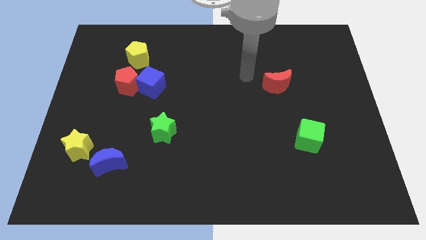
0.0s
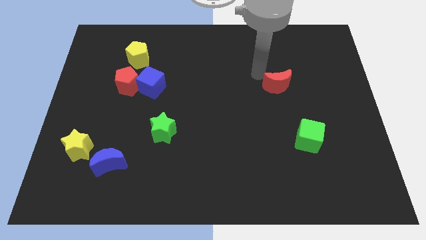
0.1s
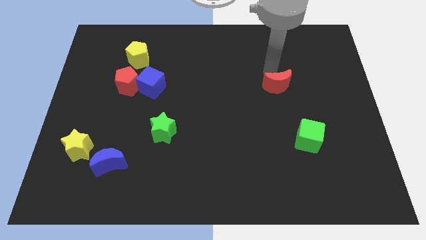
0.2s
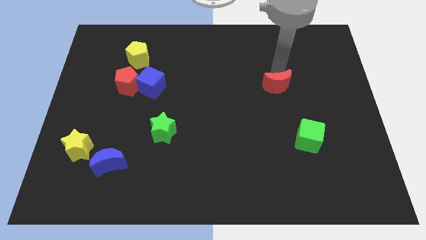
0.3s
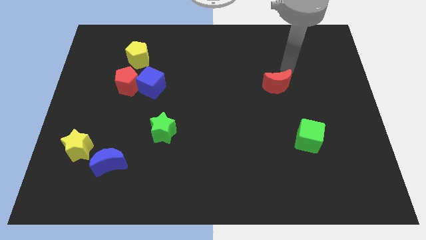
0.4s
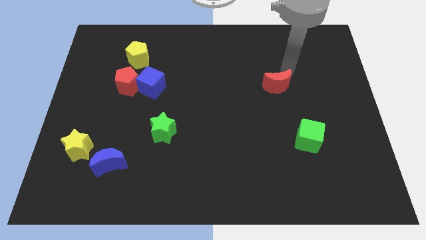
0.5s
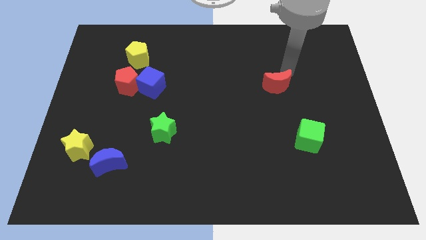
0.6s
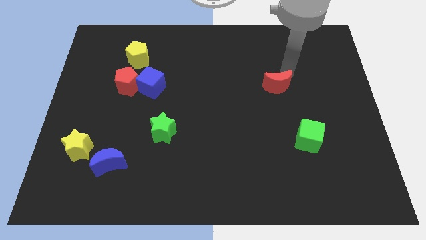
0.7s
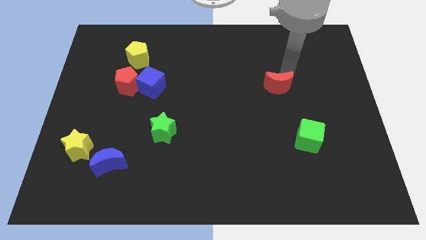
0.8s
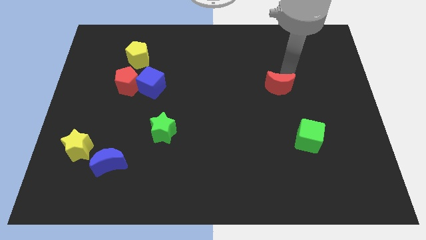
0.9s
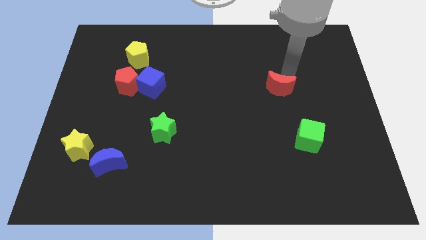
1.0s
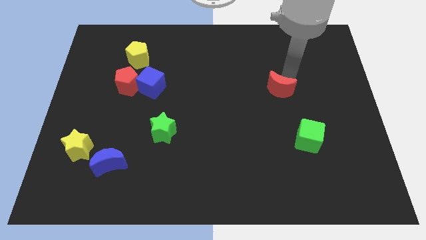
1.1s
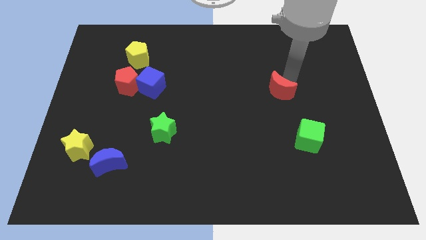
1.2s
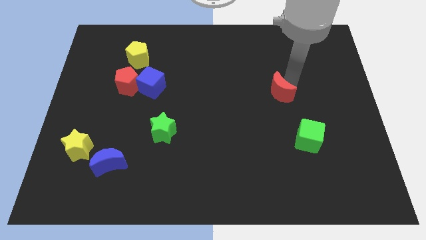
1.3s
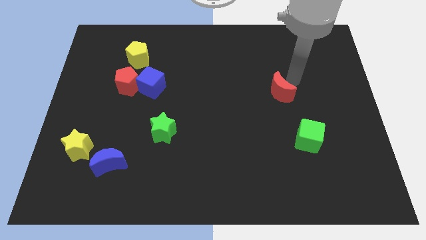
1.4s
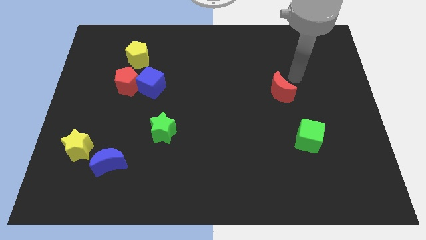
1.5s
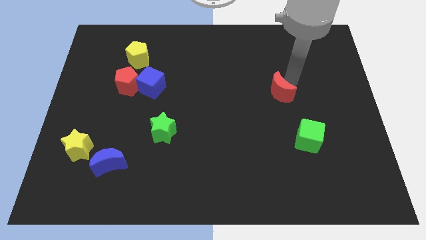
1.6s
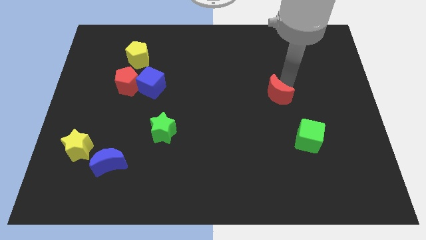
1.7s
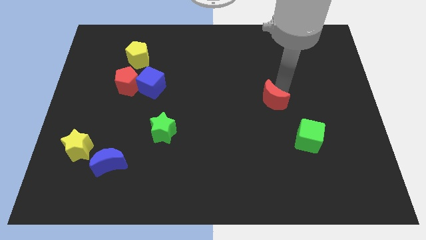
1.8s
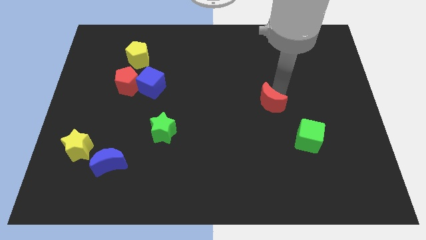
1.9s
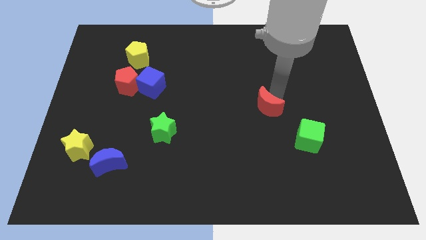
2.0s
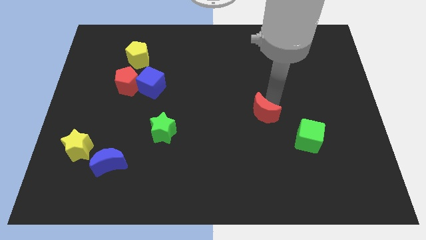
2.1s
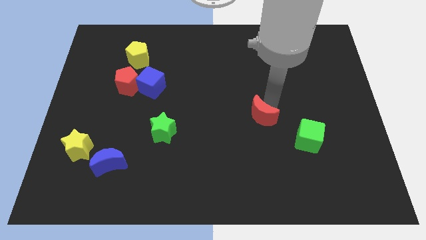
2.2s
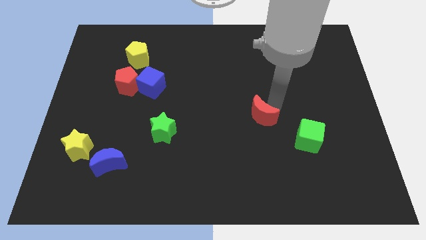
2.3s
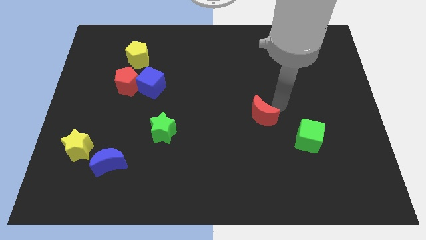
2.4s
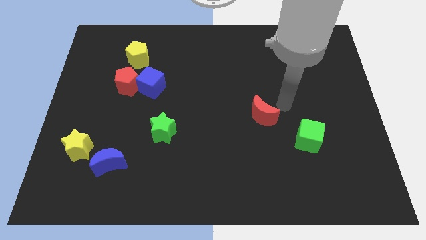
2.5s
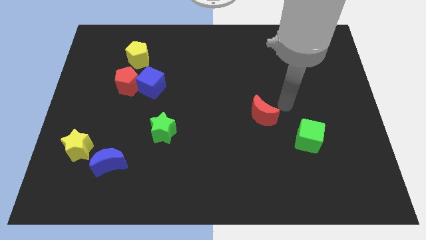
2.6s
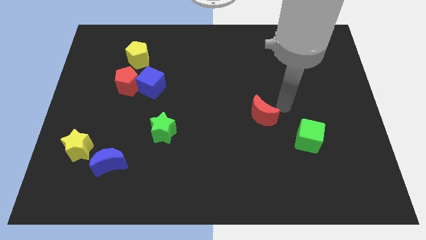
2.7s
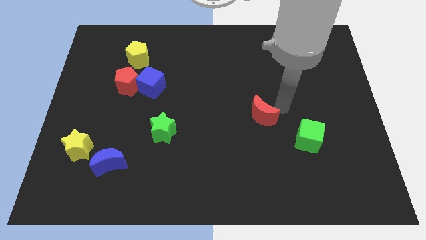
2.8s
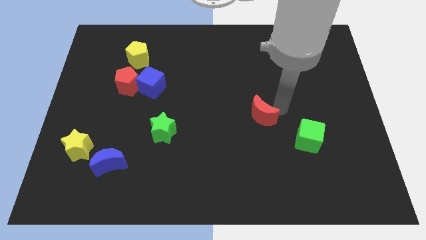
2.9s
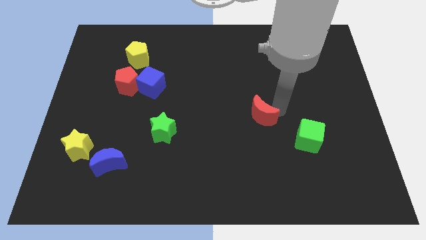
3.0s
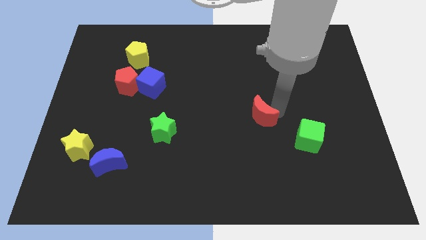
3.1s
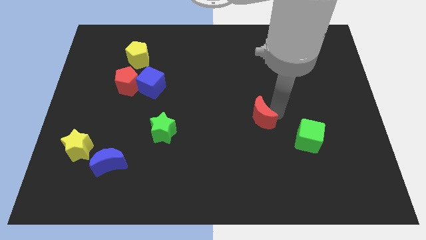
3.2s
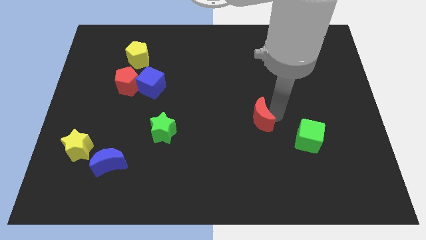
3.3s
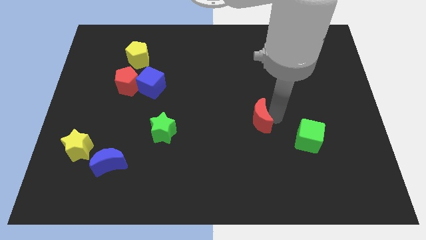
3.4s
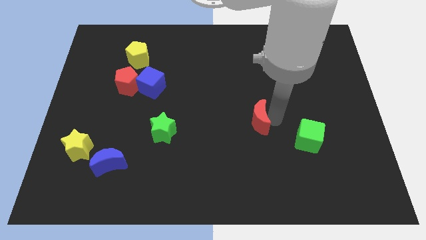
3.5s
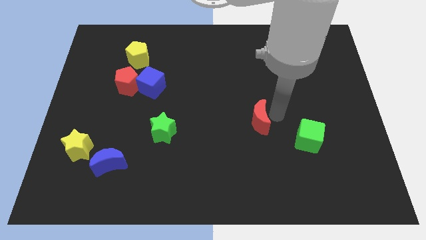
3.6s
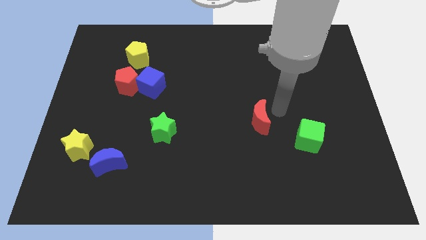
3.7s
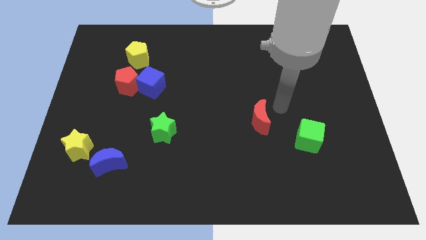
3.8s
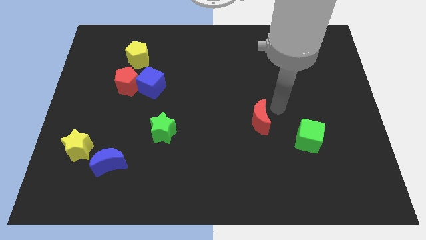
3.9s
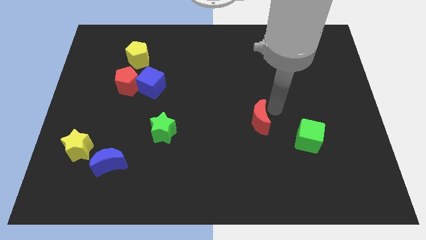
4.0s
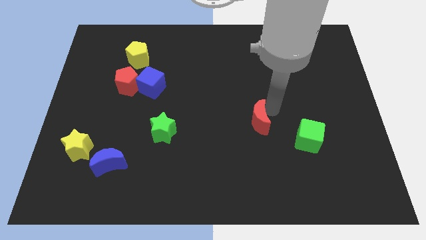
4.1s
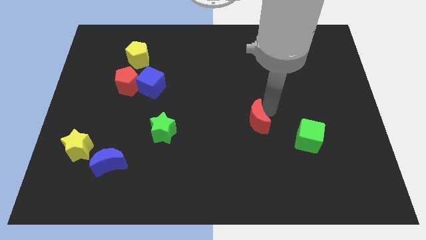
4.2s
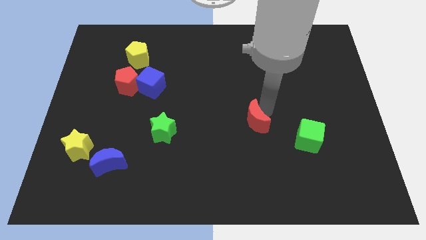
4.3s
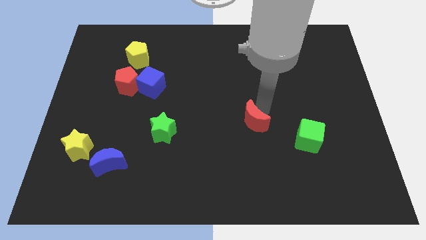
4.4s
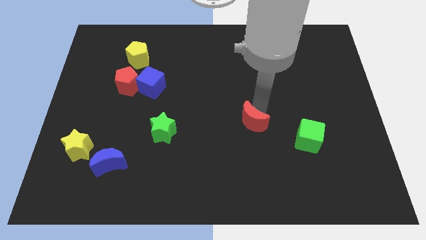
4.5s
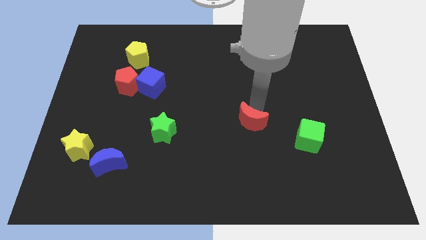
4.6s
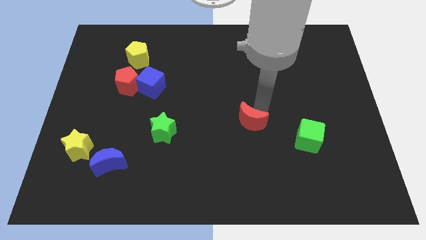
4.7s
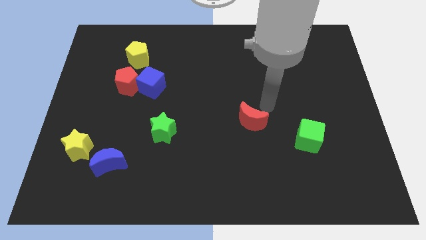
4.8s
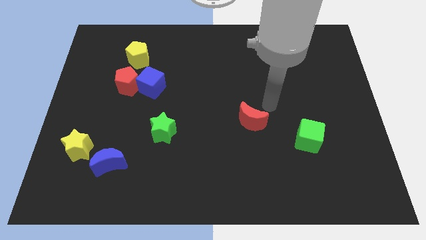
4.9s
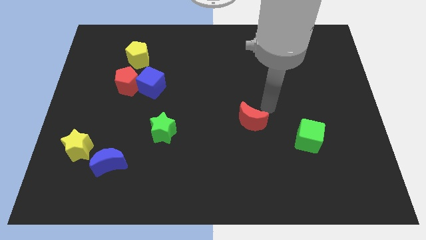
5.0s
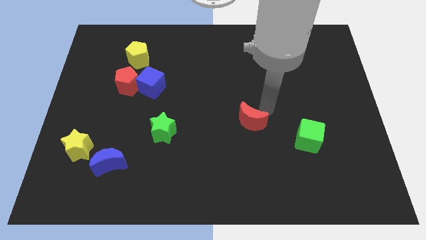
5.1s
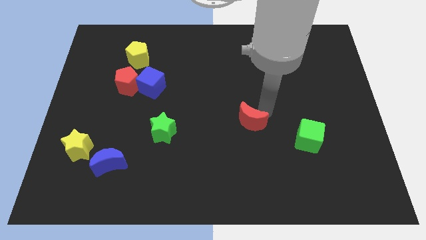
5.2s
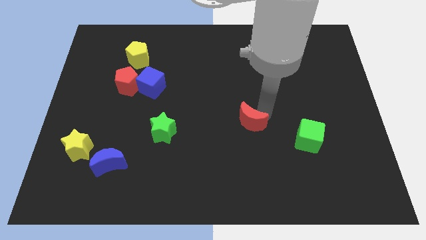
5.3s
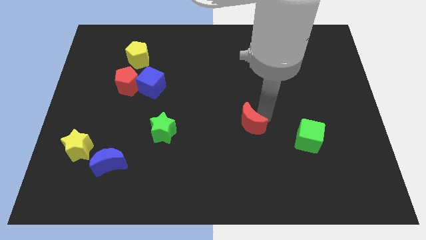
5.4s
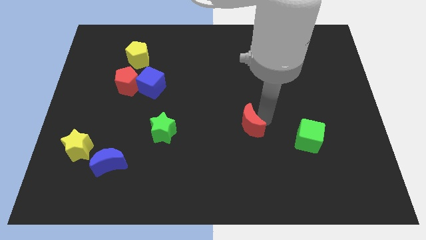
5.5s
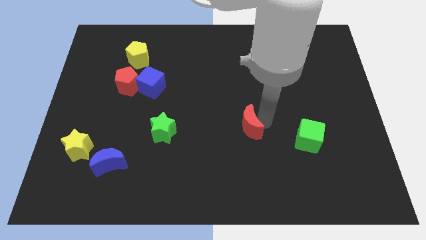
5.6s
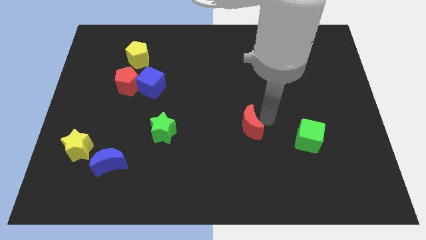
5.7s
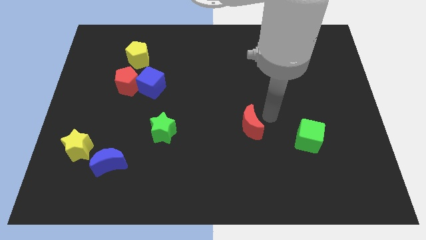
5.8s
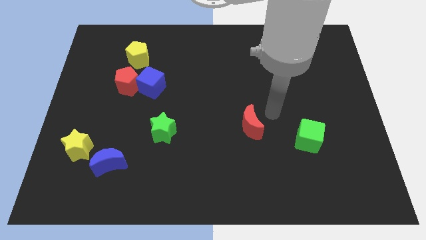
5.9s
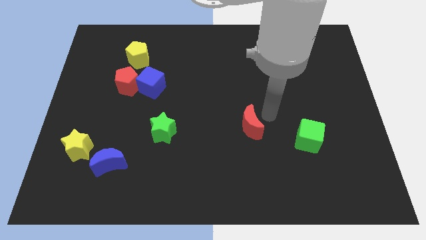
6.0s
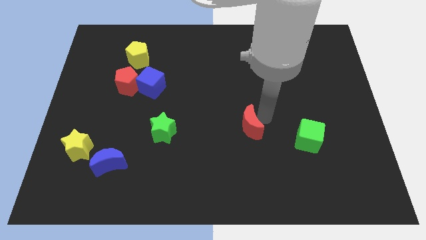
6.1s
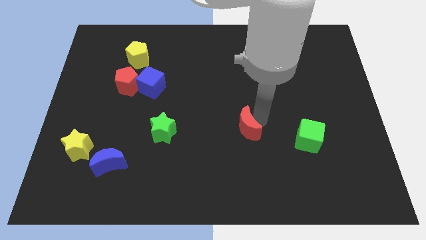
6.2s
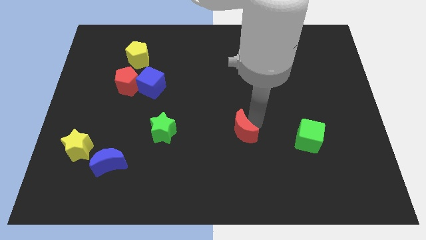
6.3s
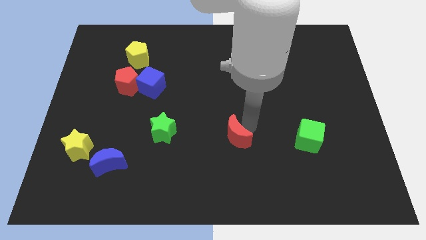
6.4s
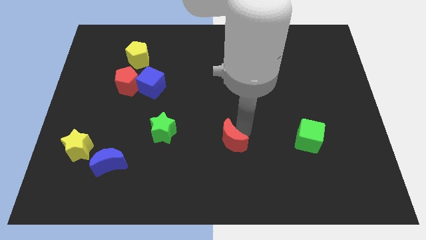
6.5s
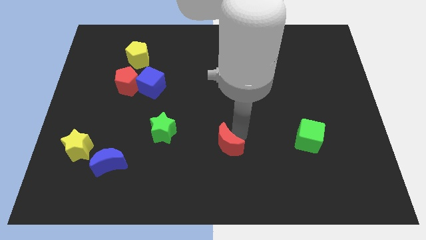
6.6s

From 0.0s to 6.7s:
move the red moon down and to the left

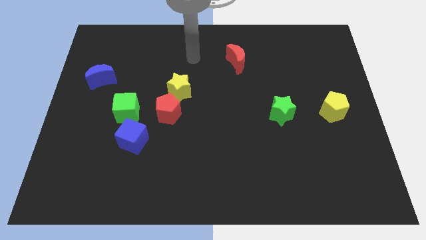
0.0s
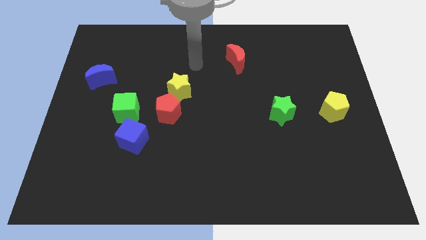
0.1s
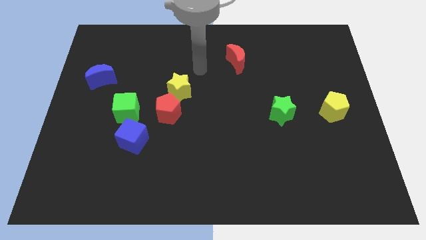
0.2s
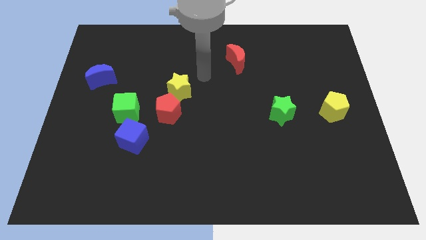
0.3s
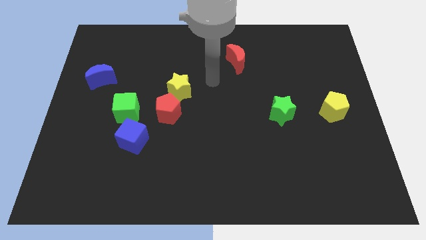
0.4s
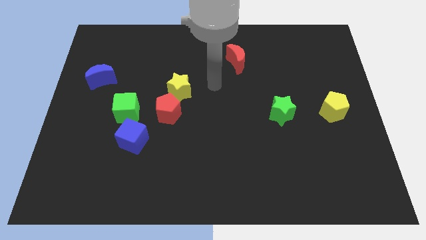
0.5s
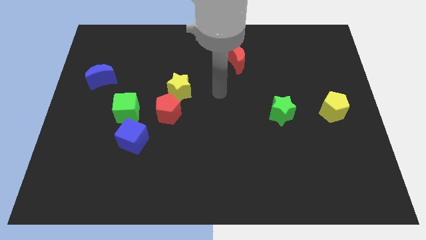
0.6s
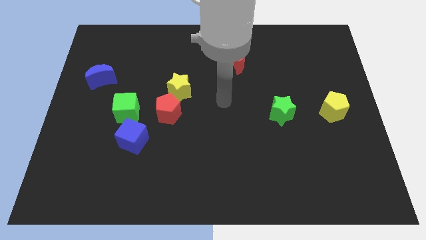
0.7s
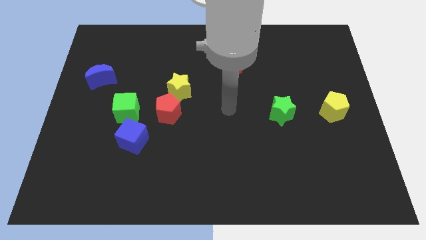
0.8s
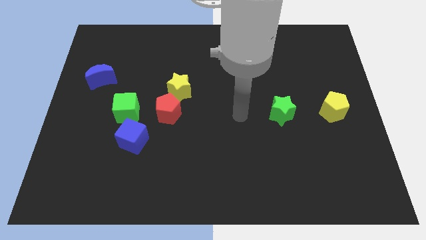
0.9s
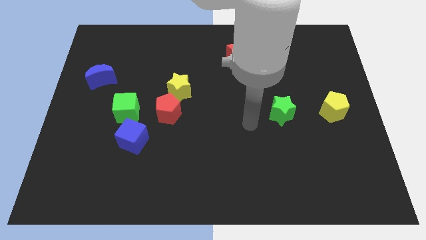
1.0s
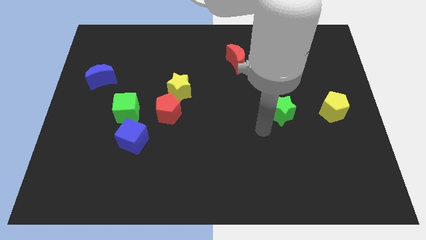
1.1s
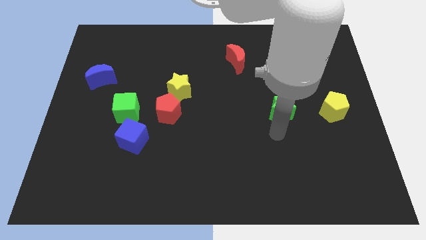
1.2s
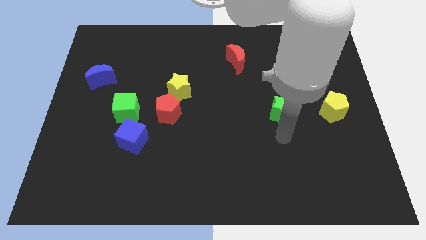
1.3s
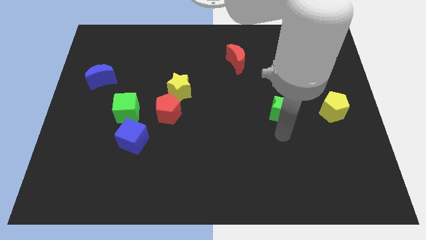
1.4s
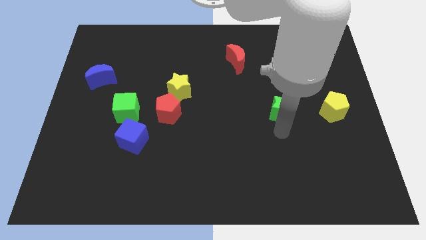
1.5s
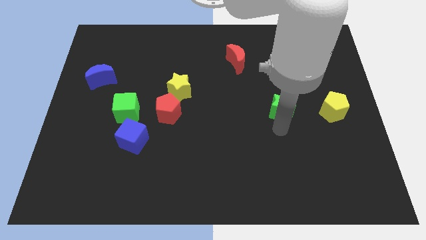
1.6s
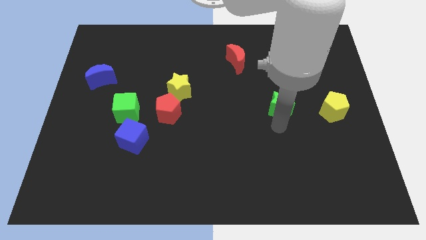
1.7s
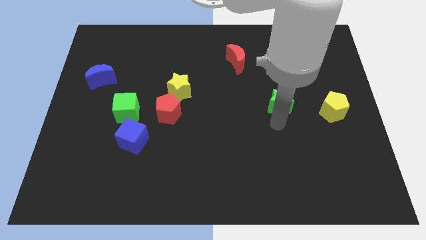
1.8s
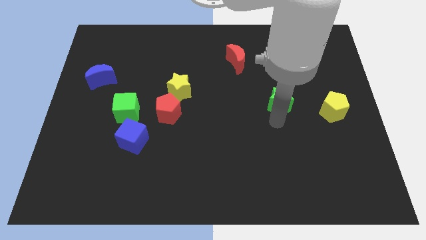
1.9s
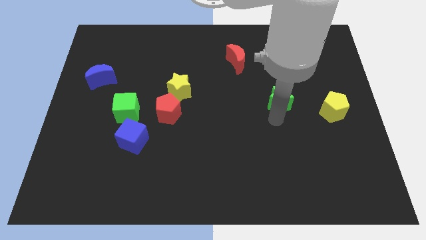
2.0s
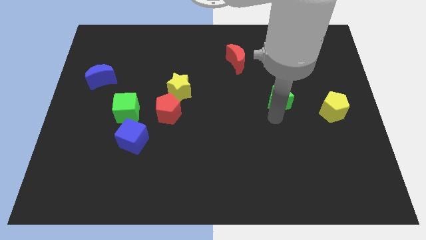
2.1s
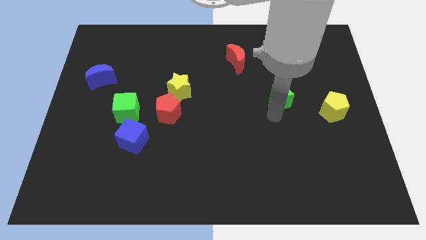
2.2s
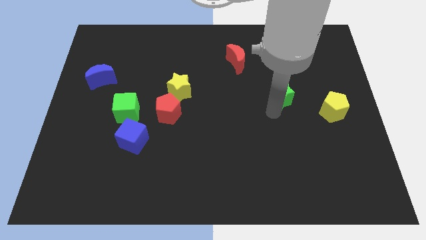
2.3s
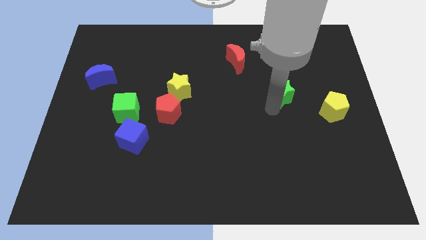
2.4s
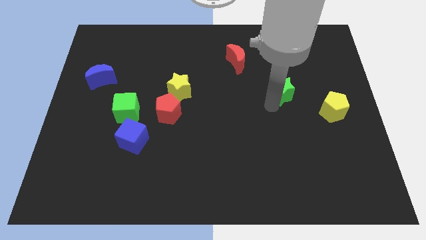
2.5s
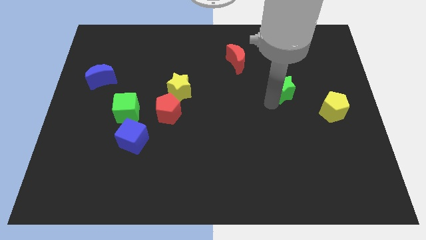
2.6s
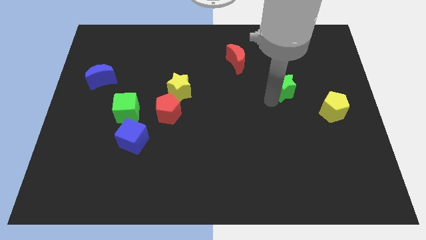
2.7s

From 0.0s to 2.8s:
push the green star upwards slightly
